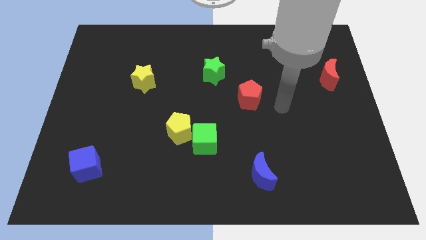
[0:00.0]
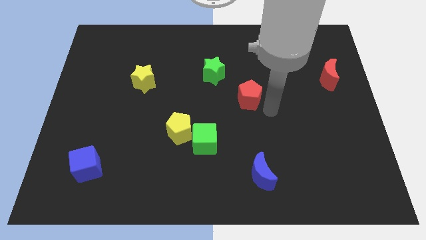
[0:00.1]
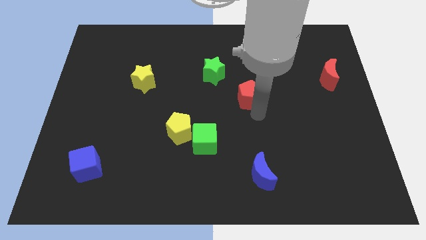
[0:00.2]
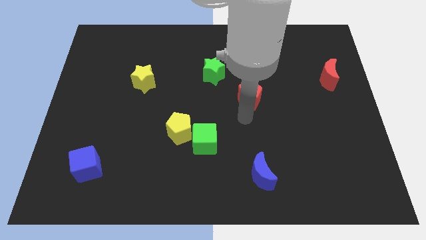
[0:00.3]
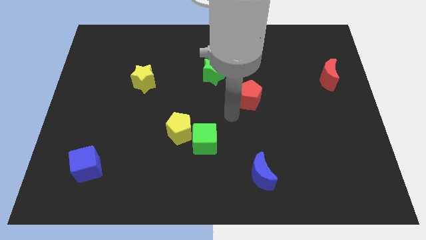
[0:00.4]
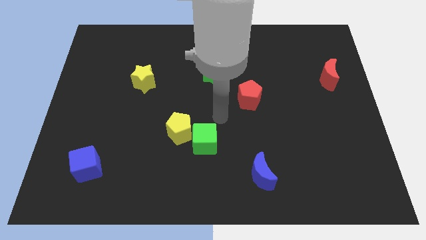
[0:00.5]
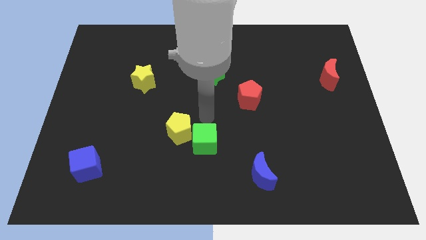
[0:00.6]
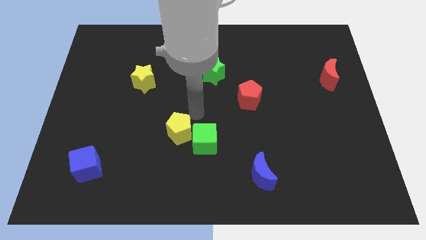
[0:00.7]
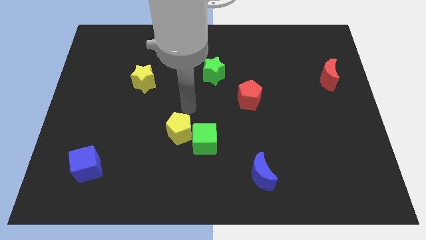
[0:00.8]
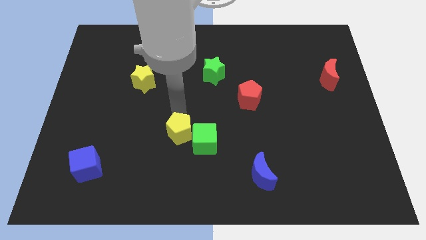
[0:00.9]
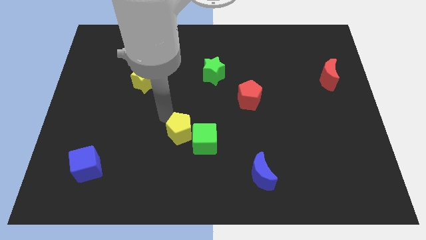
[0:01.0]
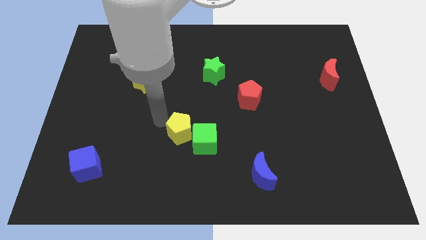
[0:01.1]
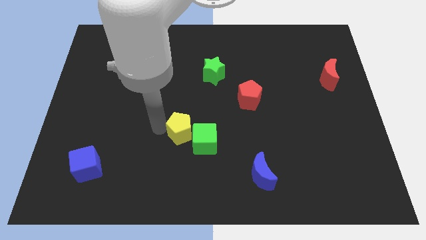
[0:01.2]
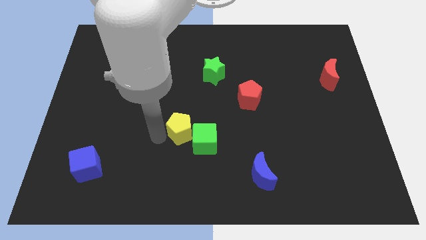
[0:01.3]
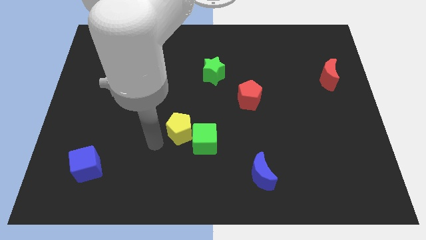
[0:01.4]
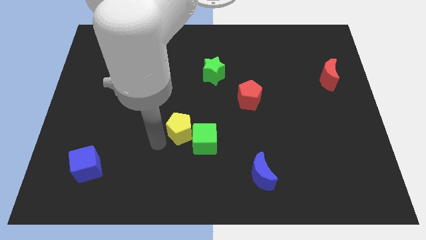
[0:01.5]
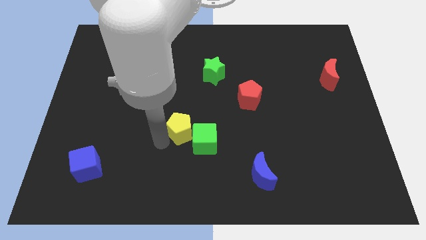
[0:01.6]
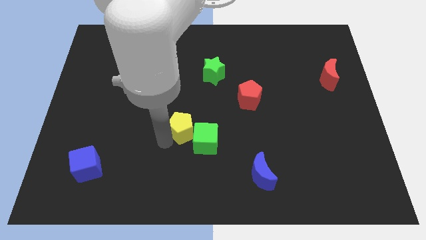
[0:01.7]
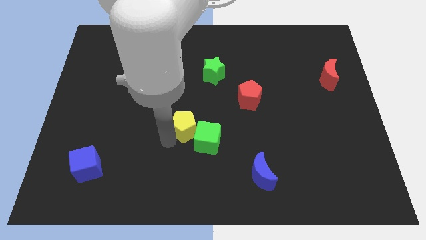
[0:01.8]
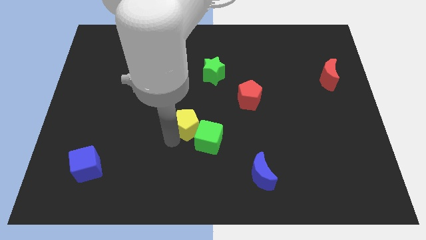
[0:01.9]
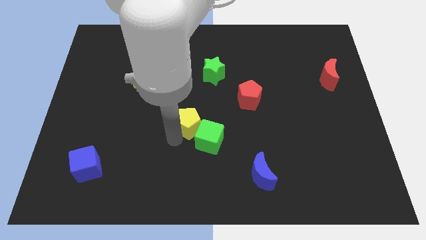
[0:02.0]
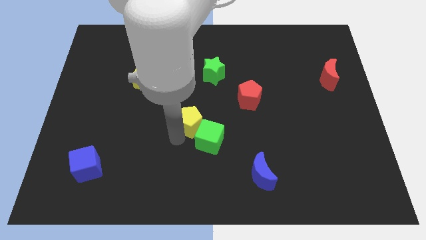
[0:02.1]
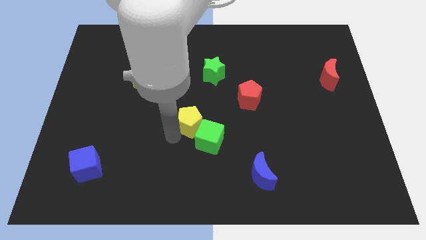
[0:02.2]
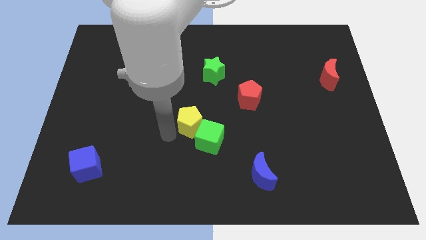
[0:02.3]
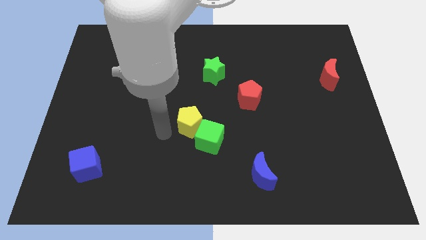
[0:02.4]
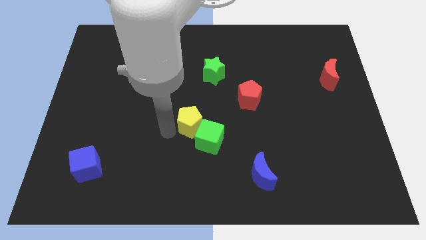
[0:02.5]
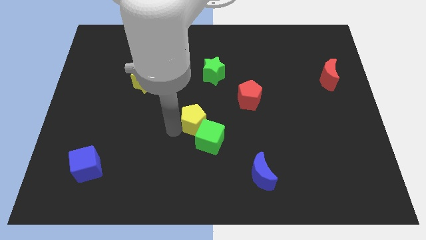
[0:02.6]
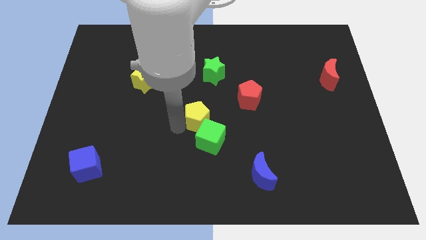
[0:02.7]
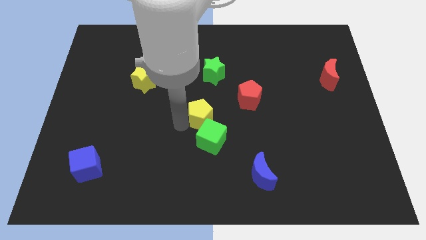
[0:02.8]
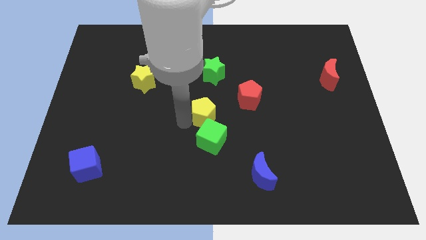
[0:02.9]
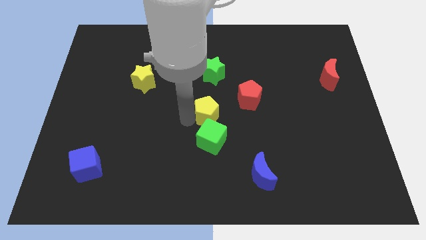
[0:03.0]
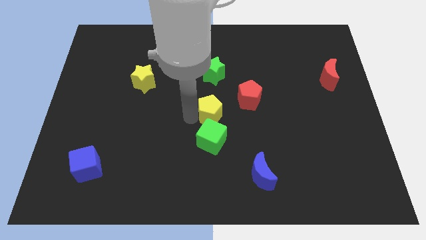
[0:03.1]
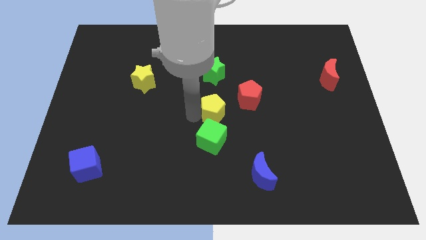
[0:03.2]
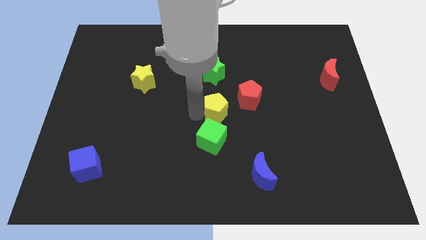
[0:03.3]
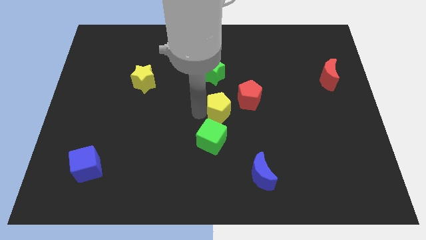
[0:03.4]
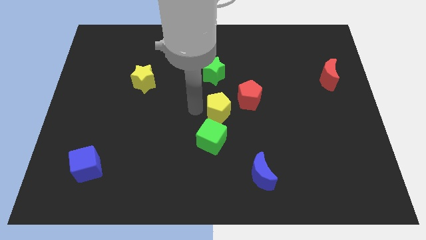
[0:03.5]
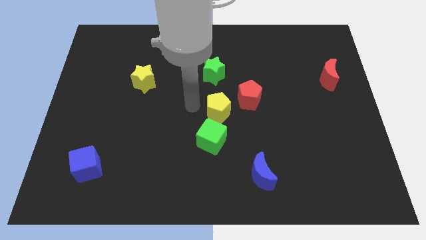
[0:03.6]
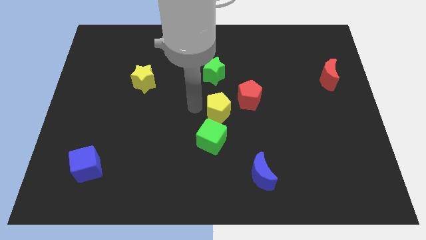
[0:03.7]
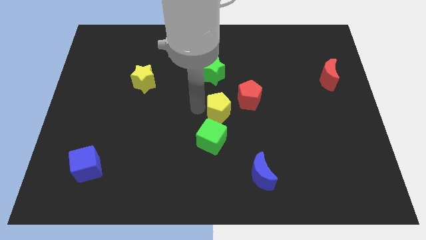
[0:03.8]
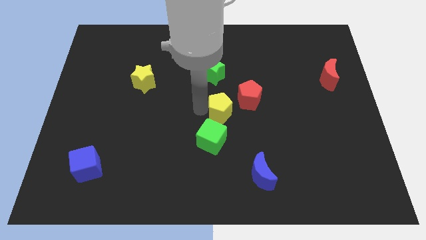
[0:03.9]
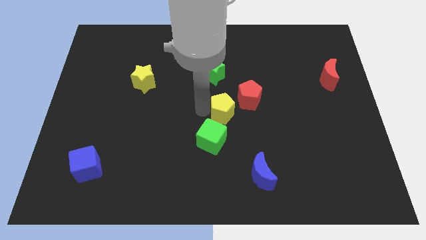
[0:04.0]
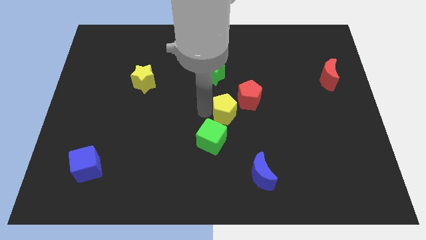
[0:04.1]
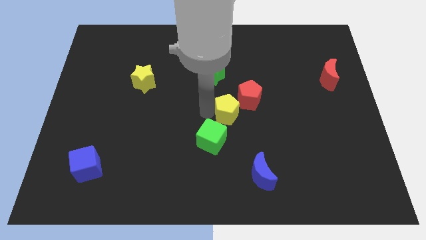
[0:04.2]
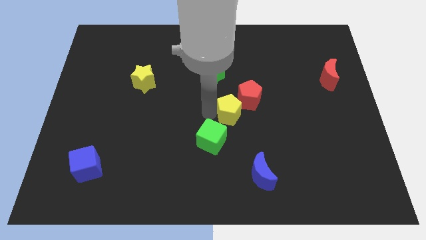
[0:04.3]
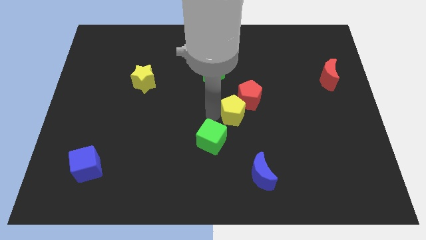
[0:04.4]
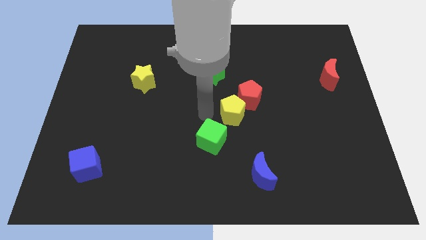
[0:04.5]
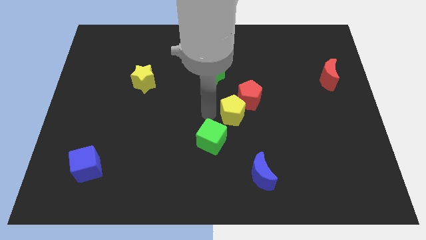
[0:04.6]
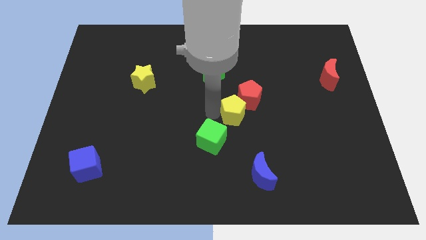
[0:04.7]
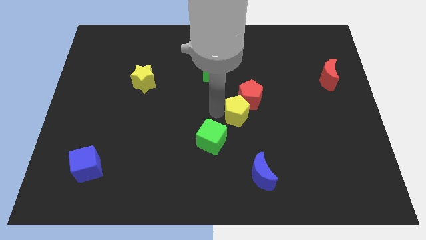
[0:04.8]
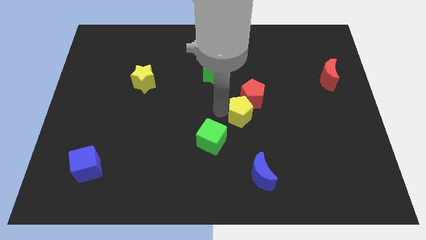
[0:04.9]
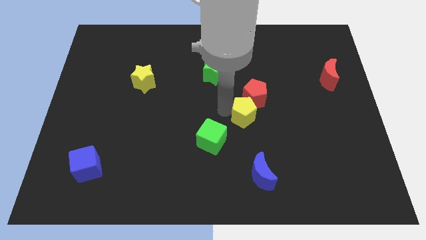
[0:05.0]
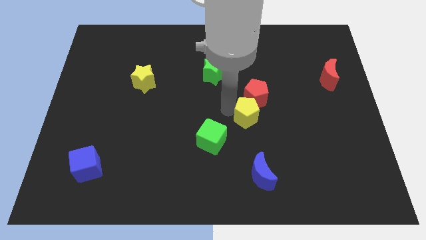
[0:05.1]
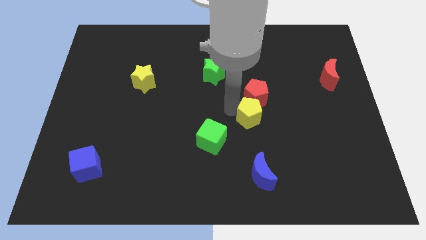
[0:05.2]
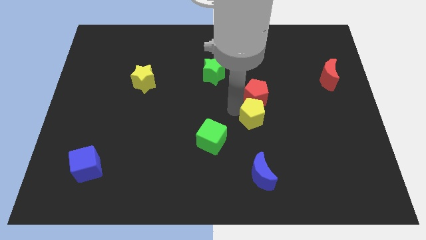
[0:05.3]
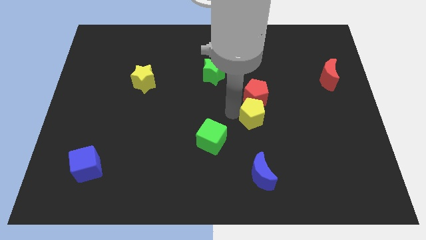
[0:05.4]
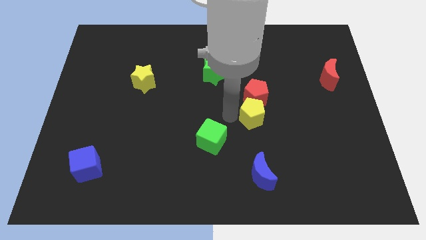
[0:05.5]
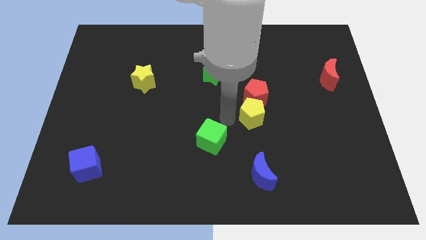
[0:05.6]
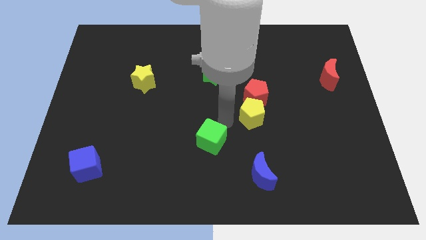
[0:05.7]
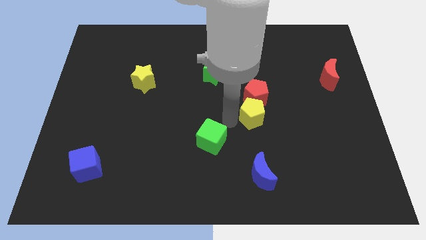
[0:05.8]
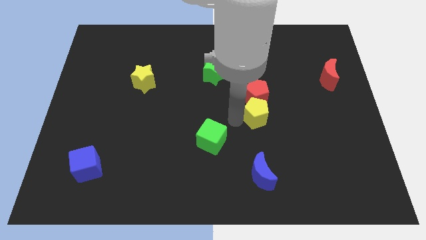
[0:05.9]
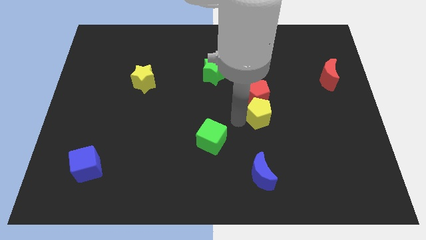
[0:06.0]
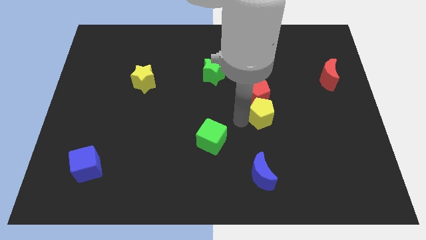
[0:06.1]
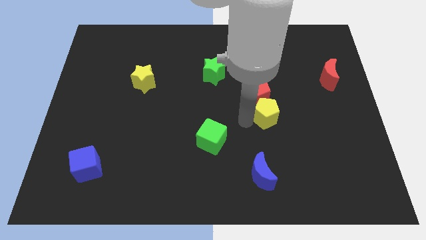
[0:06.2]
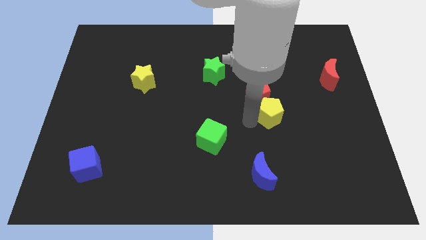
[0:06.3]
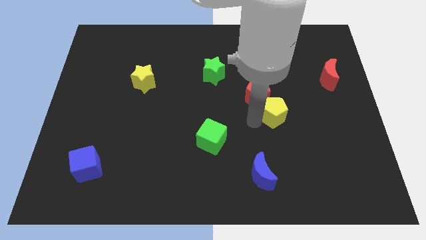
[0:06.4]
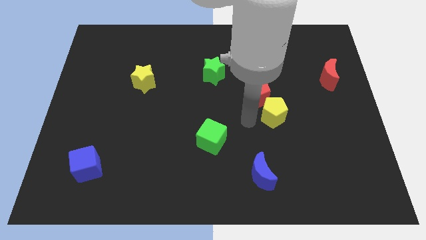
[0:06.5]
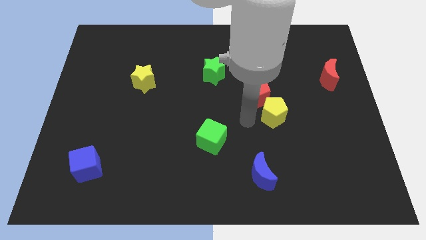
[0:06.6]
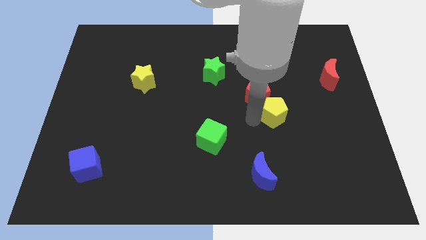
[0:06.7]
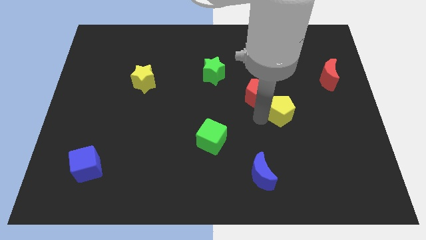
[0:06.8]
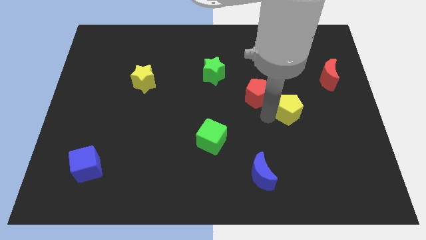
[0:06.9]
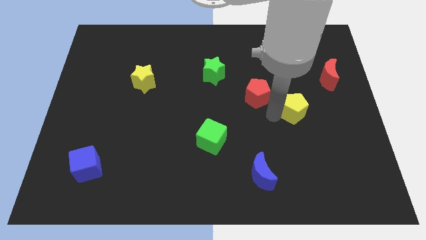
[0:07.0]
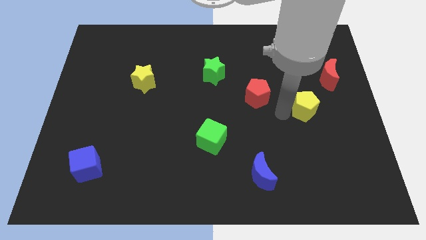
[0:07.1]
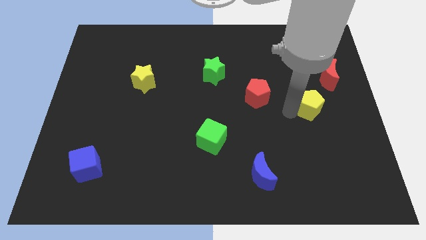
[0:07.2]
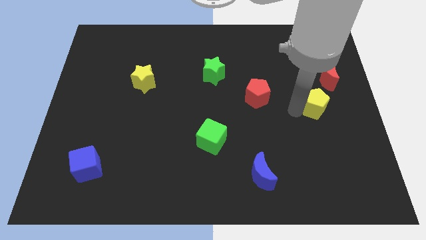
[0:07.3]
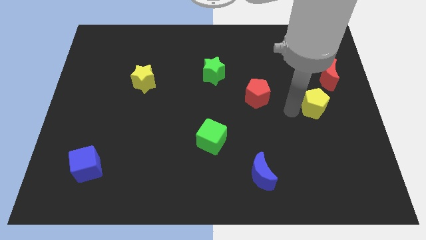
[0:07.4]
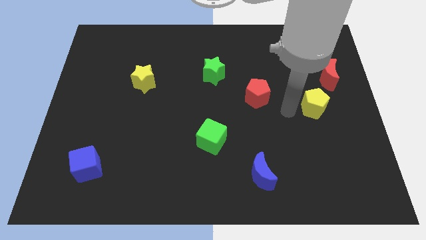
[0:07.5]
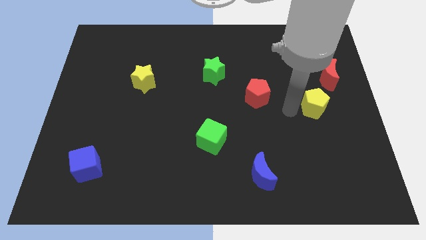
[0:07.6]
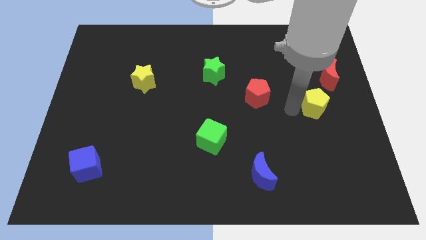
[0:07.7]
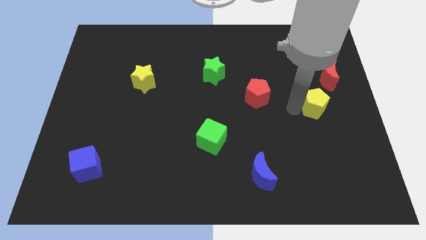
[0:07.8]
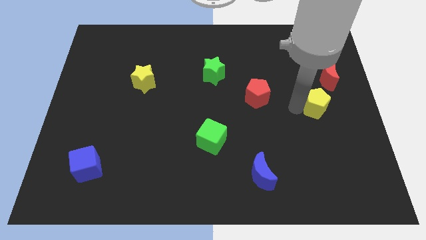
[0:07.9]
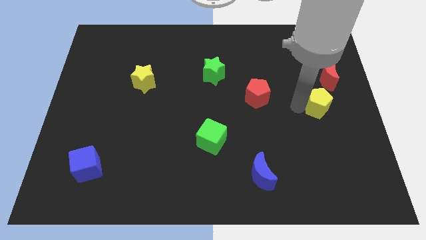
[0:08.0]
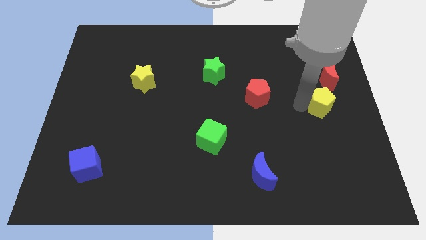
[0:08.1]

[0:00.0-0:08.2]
push the yellow pentagon to the right side of the board
